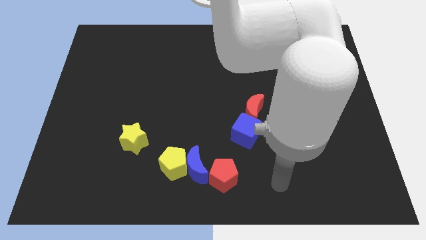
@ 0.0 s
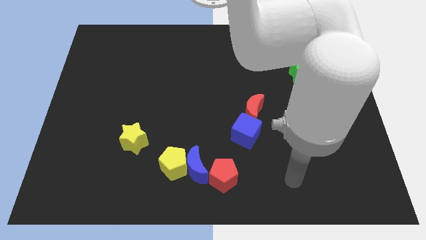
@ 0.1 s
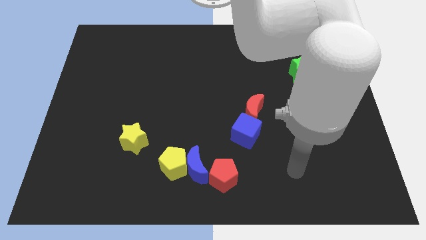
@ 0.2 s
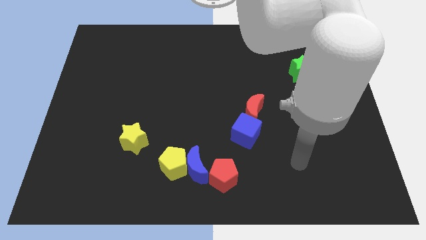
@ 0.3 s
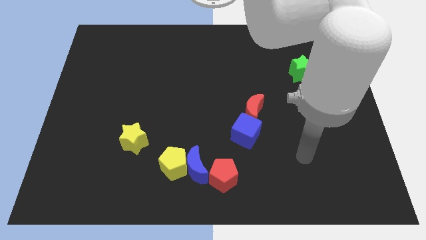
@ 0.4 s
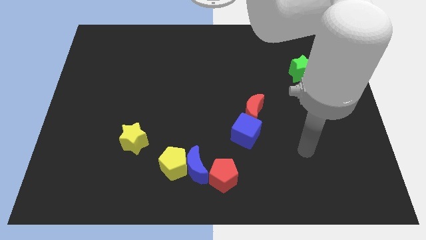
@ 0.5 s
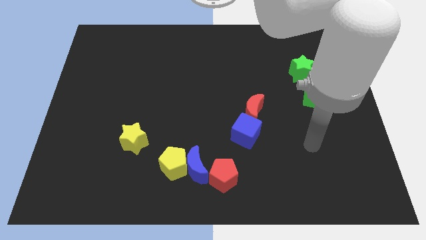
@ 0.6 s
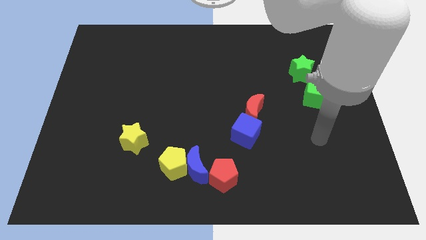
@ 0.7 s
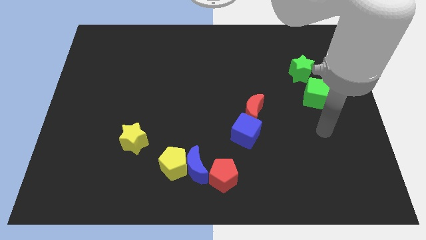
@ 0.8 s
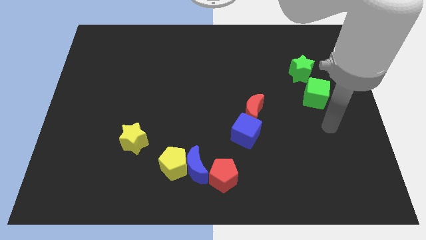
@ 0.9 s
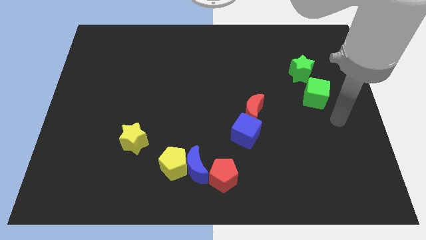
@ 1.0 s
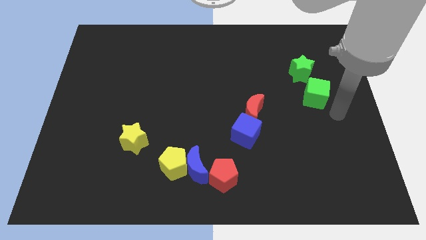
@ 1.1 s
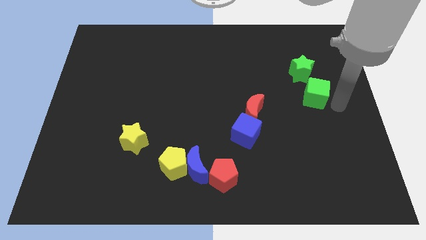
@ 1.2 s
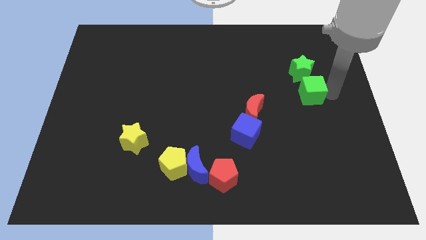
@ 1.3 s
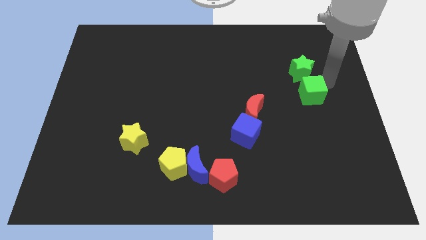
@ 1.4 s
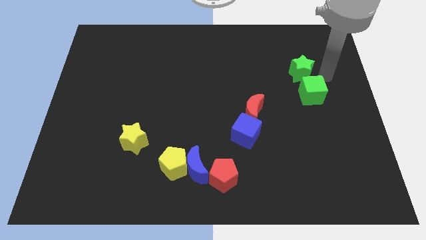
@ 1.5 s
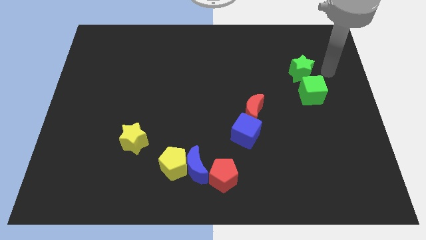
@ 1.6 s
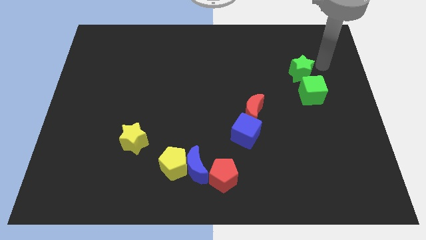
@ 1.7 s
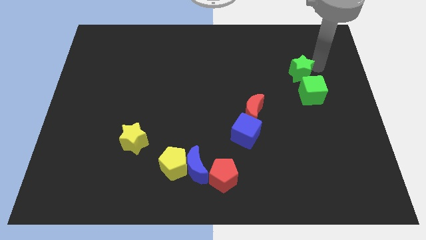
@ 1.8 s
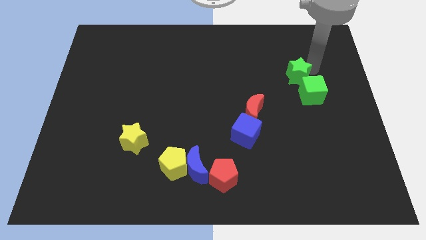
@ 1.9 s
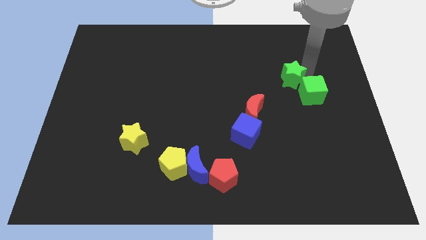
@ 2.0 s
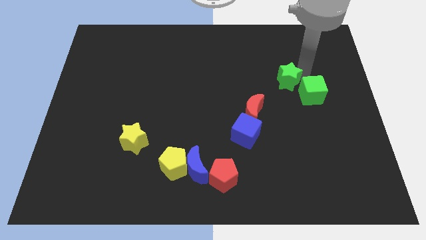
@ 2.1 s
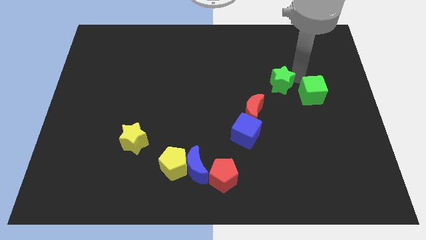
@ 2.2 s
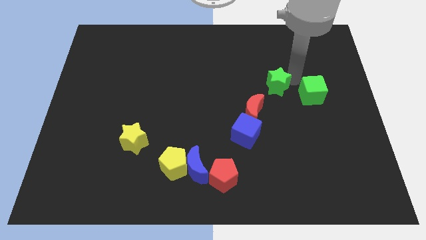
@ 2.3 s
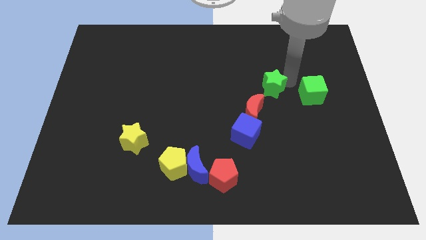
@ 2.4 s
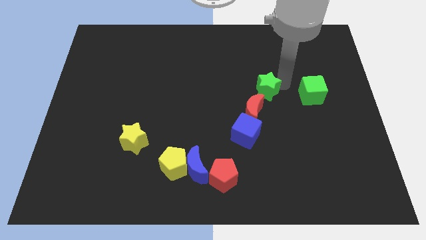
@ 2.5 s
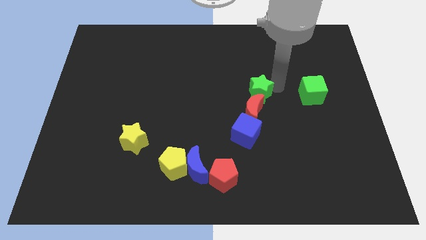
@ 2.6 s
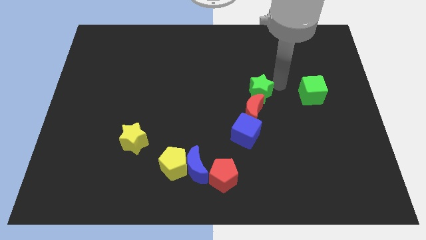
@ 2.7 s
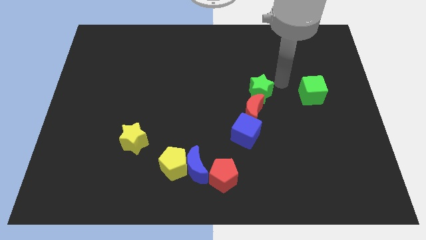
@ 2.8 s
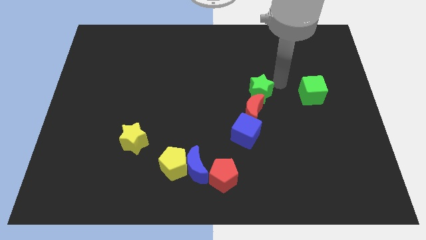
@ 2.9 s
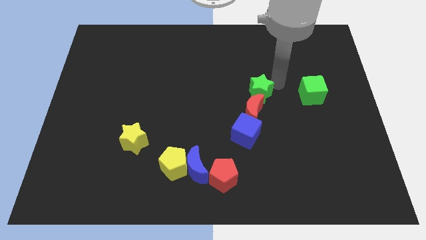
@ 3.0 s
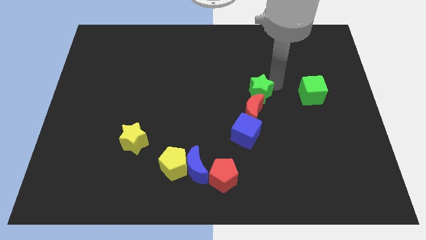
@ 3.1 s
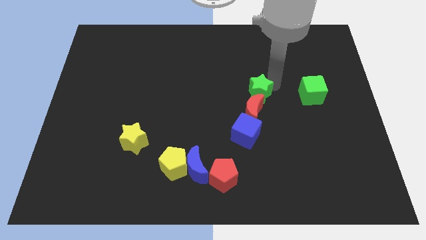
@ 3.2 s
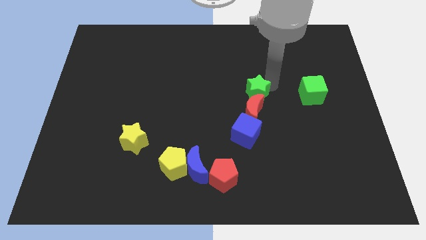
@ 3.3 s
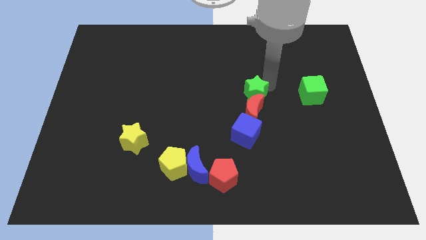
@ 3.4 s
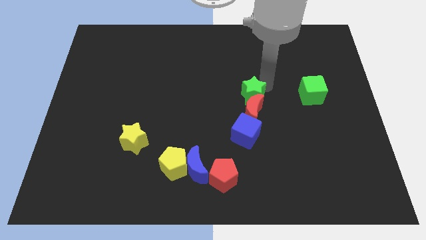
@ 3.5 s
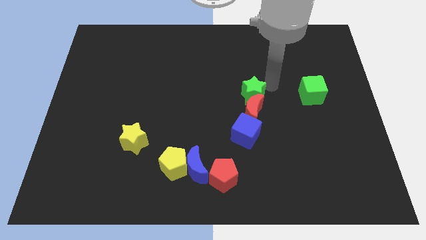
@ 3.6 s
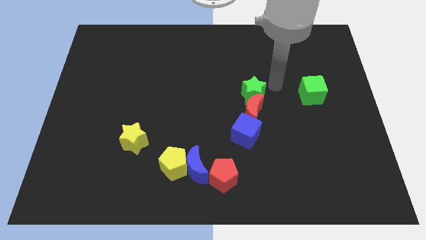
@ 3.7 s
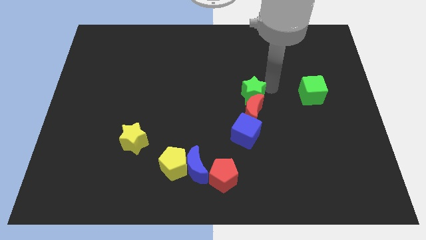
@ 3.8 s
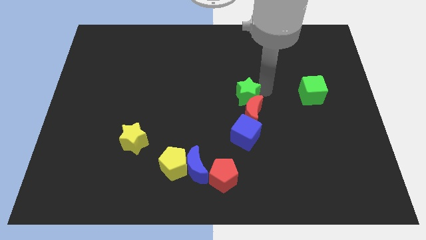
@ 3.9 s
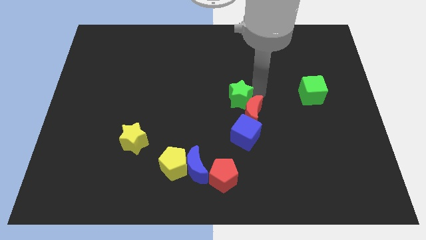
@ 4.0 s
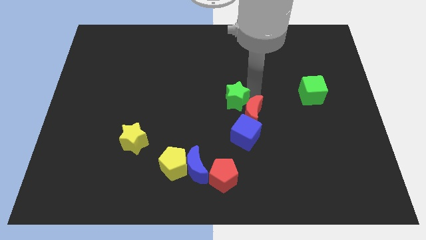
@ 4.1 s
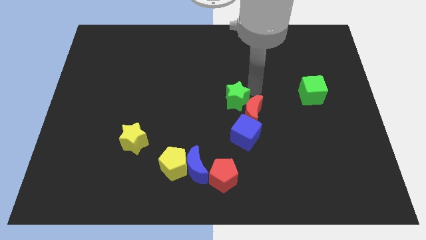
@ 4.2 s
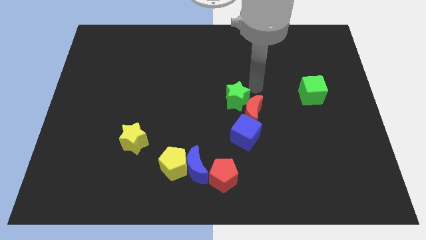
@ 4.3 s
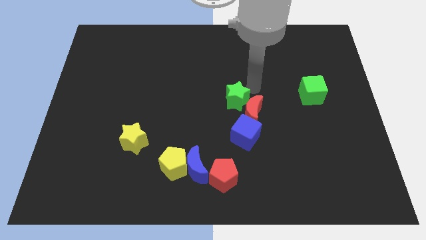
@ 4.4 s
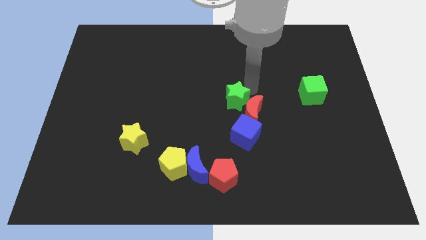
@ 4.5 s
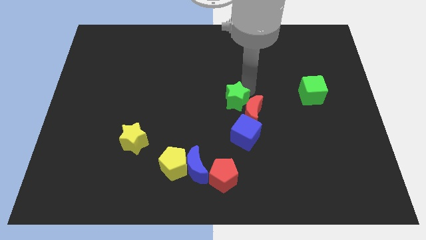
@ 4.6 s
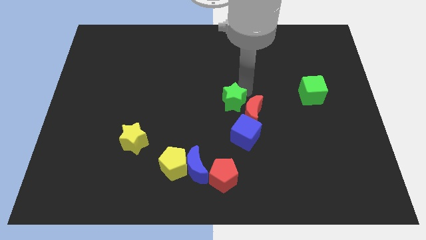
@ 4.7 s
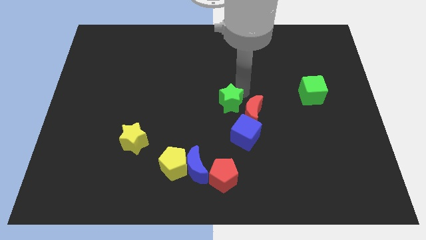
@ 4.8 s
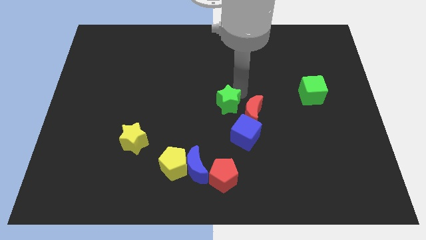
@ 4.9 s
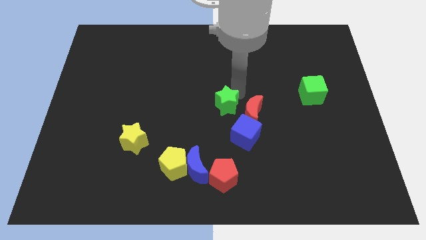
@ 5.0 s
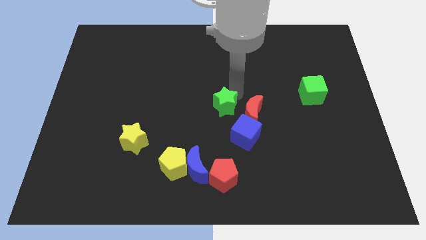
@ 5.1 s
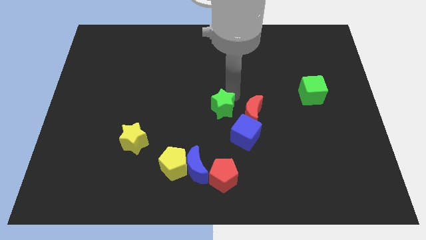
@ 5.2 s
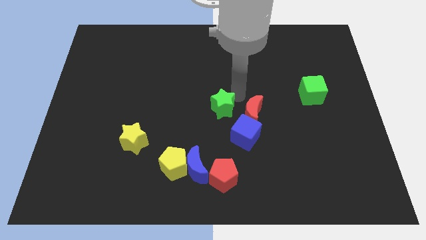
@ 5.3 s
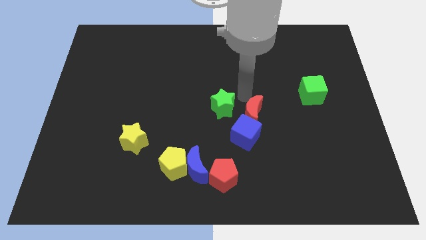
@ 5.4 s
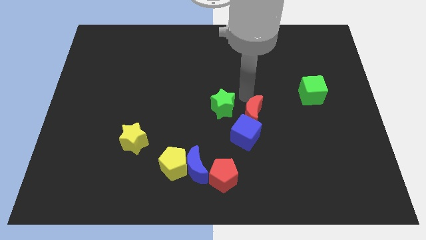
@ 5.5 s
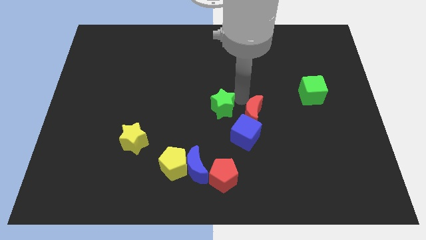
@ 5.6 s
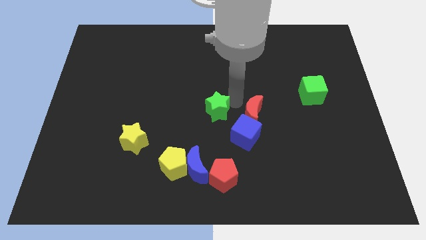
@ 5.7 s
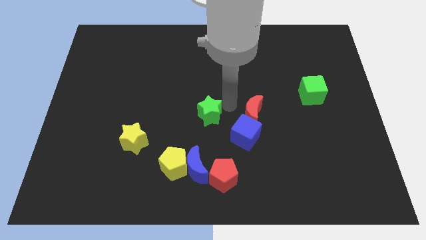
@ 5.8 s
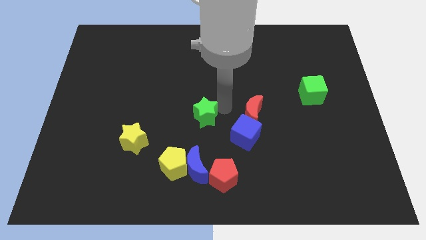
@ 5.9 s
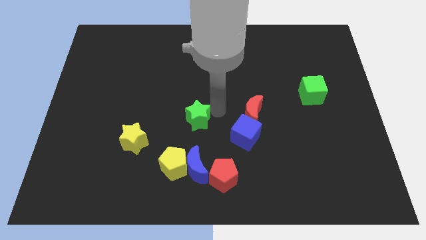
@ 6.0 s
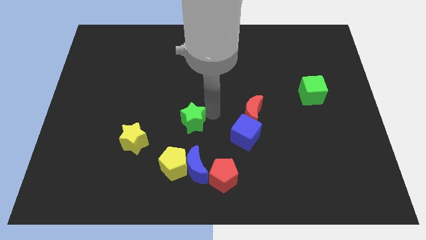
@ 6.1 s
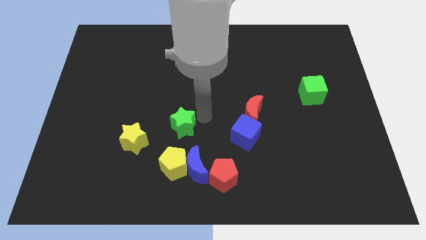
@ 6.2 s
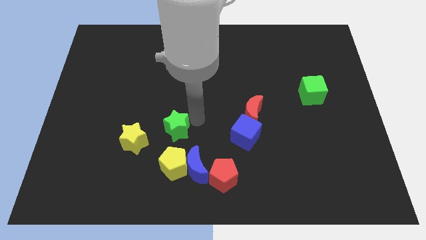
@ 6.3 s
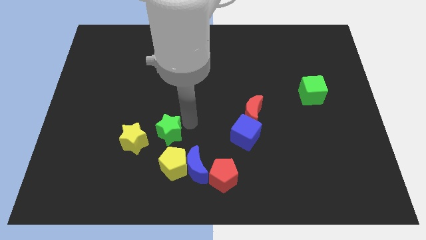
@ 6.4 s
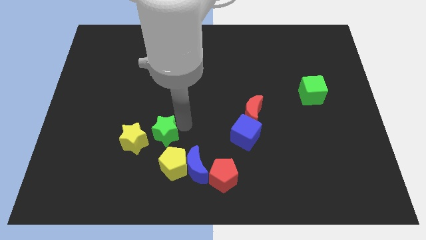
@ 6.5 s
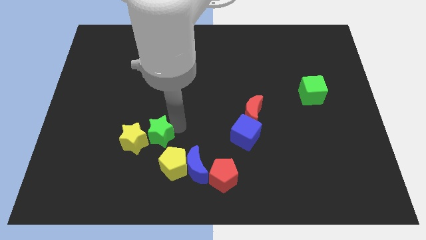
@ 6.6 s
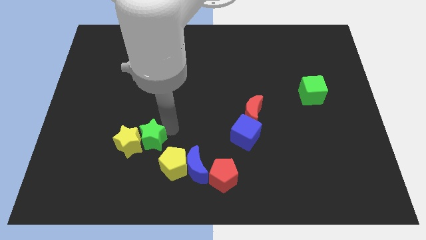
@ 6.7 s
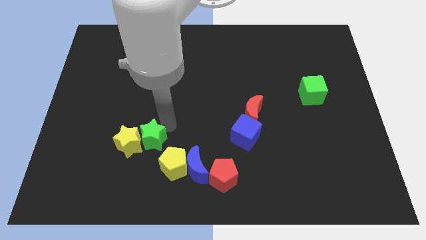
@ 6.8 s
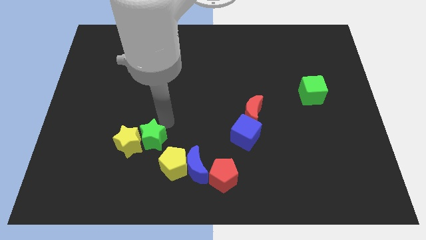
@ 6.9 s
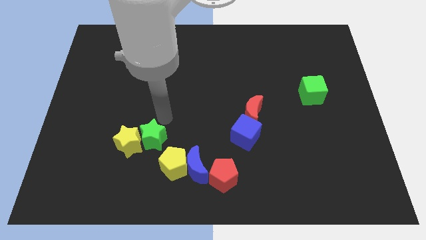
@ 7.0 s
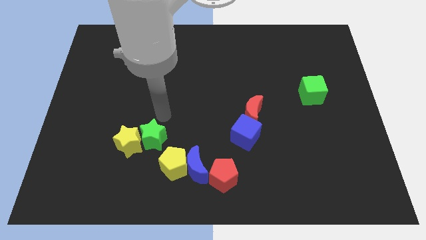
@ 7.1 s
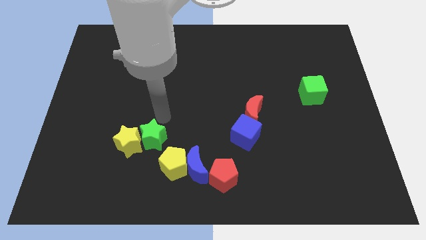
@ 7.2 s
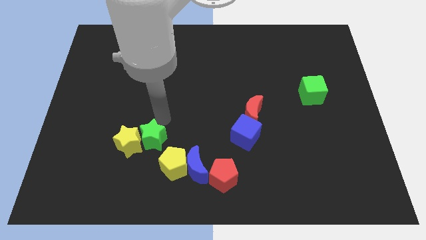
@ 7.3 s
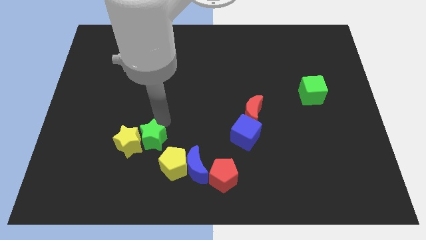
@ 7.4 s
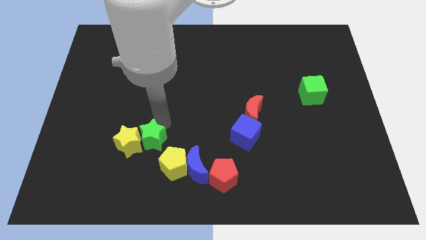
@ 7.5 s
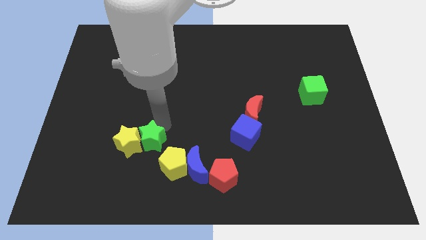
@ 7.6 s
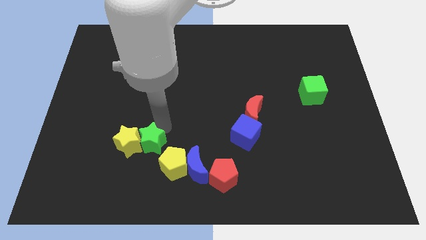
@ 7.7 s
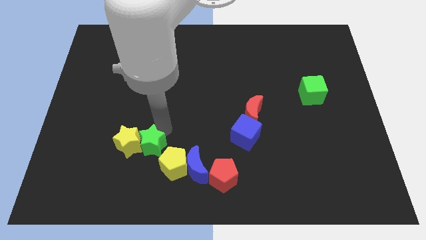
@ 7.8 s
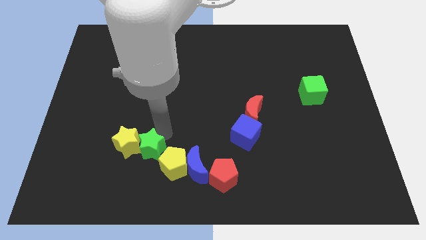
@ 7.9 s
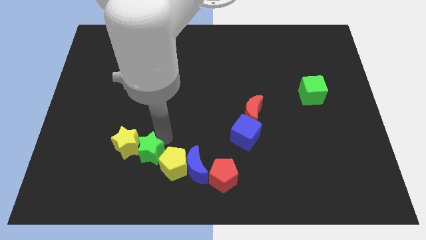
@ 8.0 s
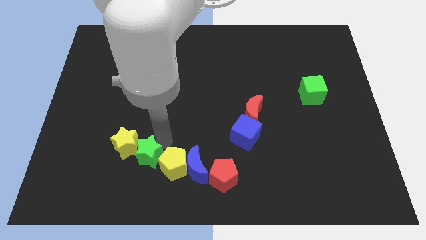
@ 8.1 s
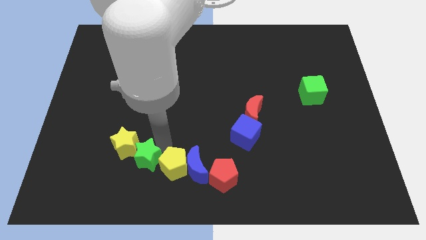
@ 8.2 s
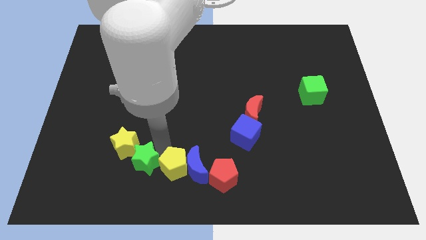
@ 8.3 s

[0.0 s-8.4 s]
move the green star to the bottom side of the yellow star
